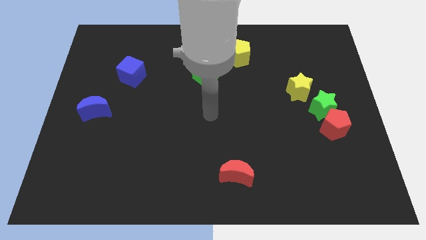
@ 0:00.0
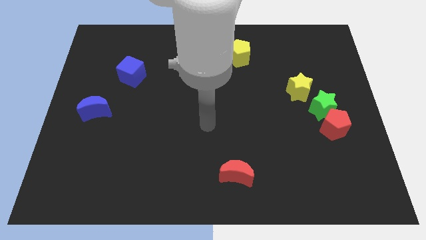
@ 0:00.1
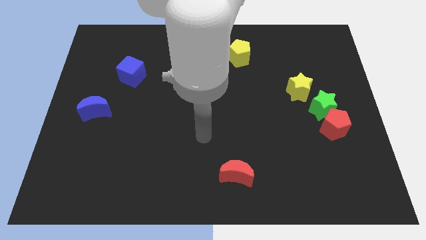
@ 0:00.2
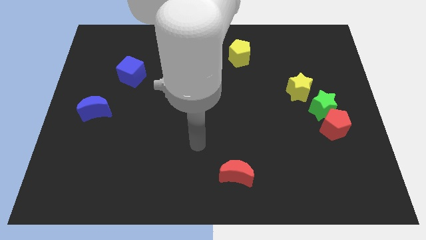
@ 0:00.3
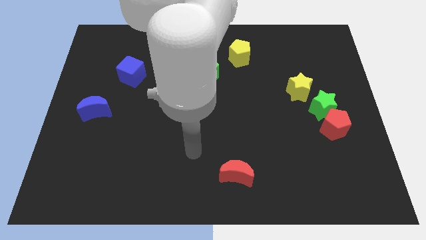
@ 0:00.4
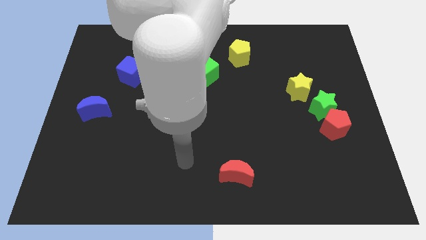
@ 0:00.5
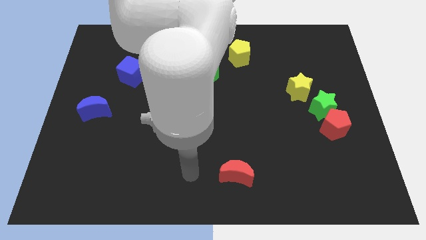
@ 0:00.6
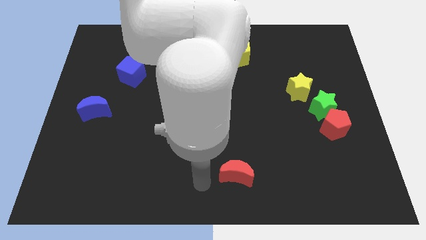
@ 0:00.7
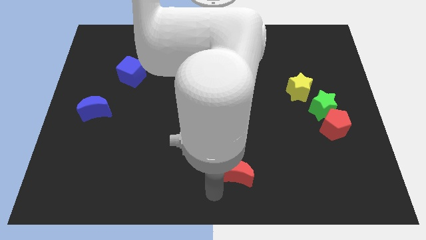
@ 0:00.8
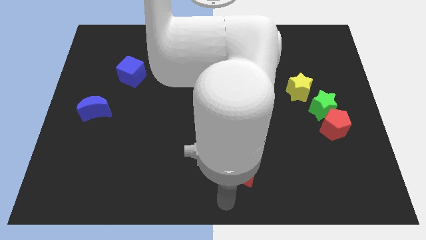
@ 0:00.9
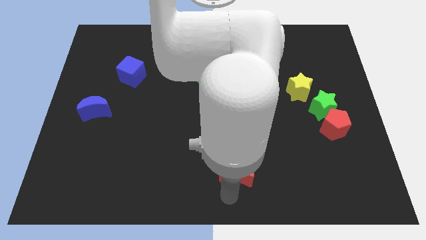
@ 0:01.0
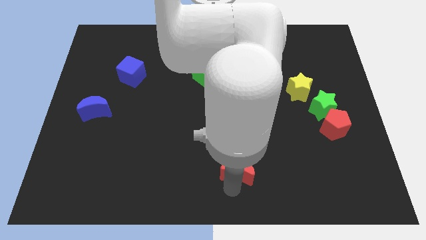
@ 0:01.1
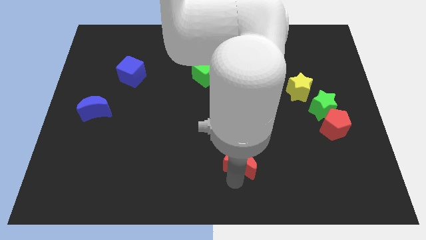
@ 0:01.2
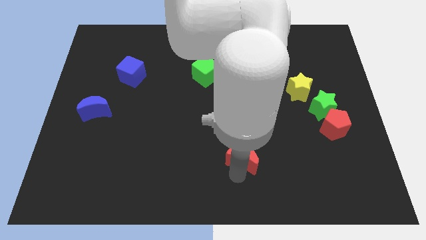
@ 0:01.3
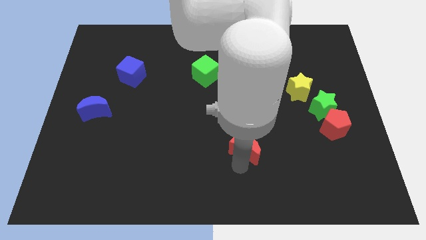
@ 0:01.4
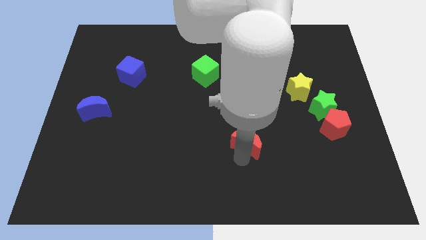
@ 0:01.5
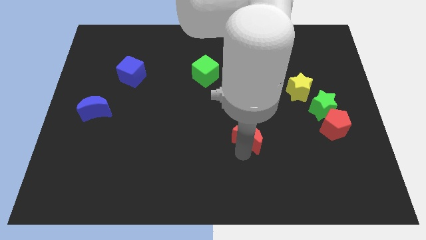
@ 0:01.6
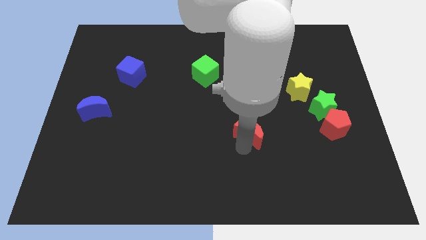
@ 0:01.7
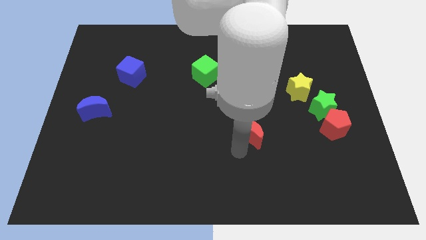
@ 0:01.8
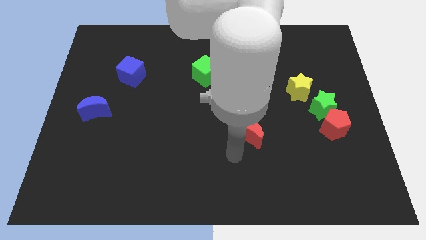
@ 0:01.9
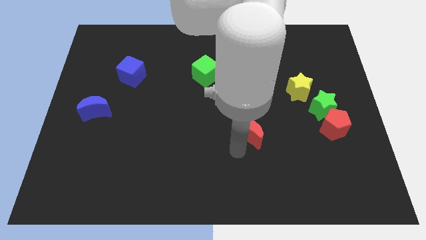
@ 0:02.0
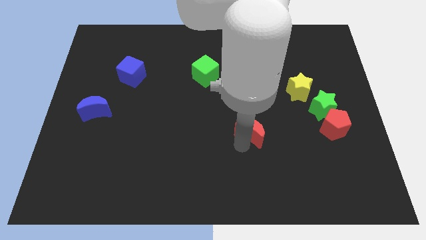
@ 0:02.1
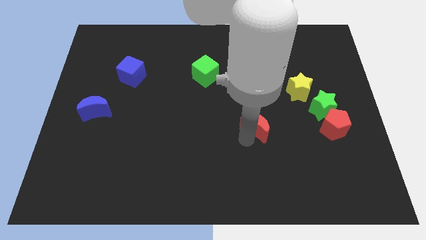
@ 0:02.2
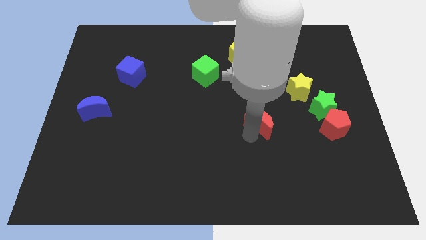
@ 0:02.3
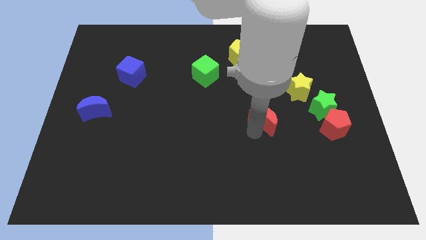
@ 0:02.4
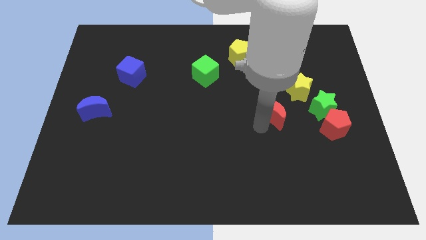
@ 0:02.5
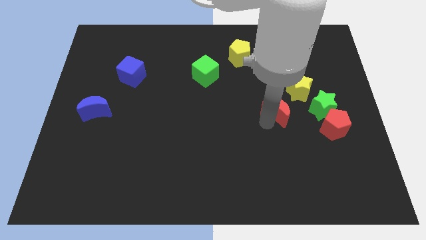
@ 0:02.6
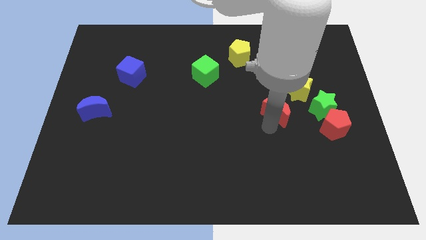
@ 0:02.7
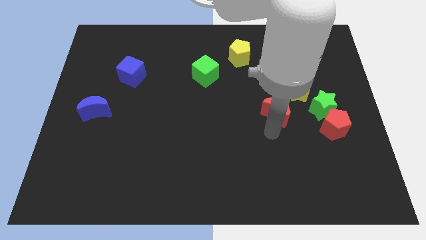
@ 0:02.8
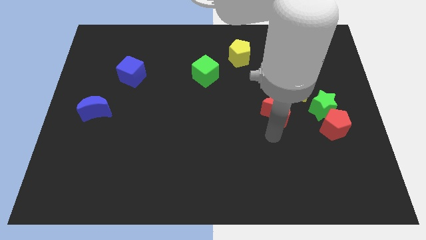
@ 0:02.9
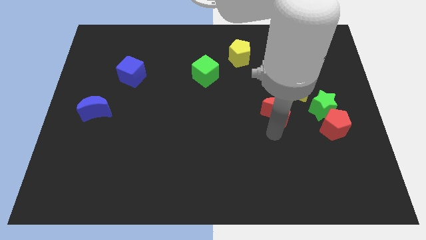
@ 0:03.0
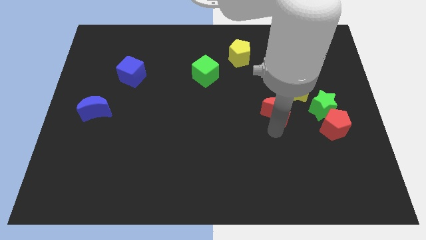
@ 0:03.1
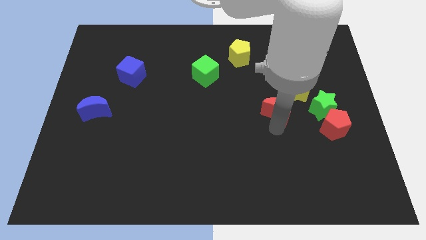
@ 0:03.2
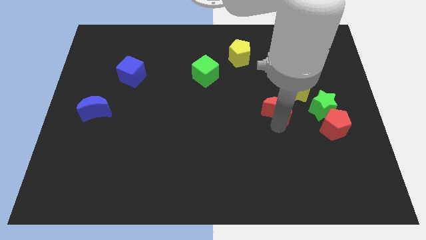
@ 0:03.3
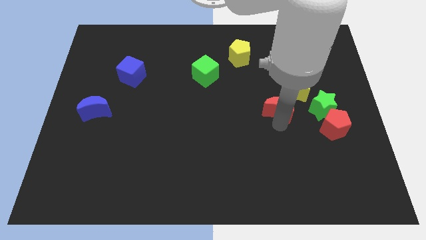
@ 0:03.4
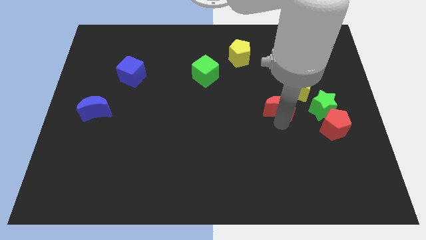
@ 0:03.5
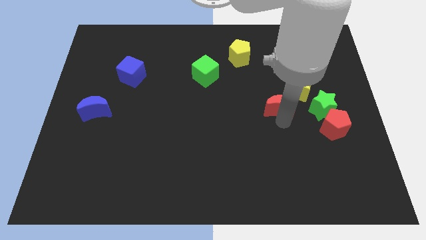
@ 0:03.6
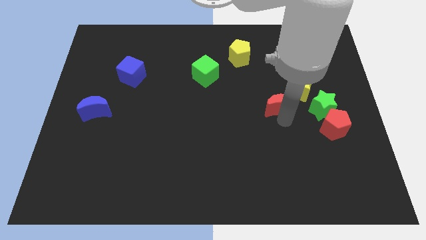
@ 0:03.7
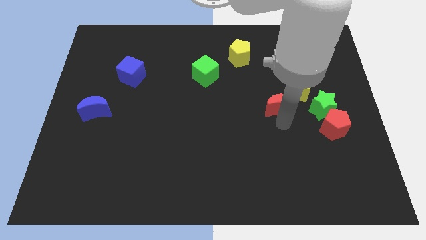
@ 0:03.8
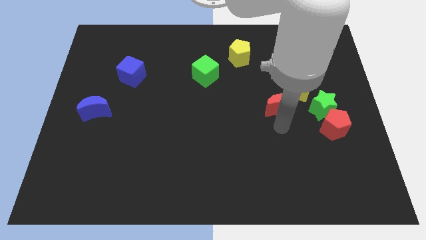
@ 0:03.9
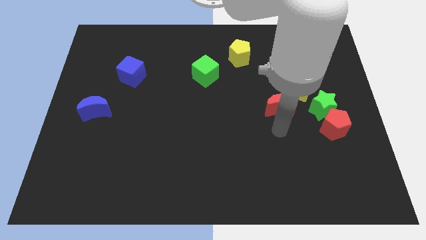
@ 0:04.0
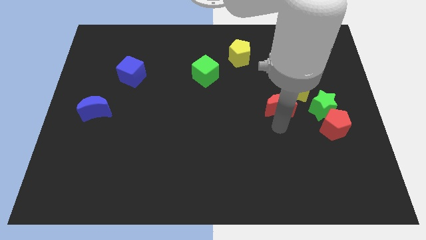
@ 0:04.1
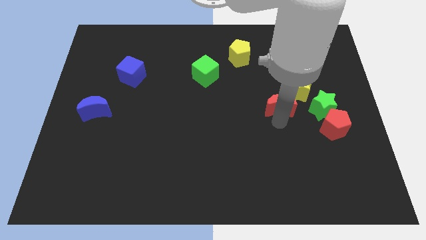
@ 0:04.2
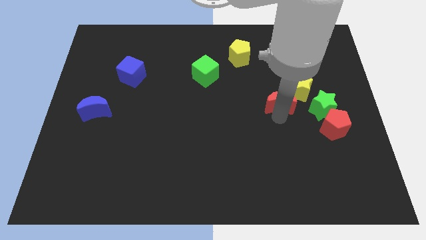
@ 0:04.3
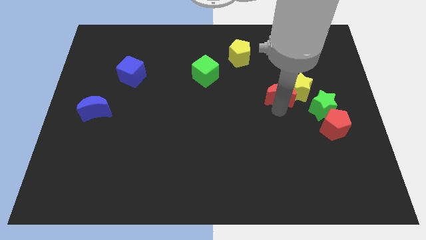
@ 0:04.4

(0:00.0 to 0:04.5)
slide the red moon diagonally upwards and to the right

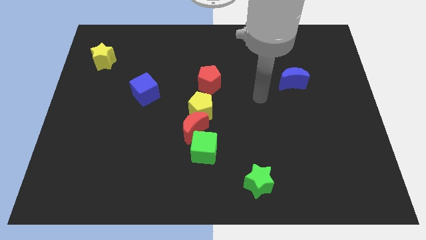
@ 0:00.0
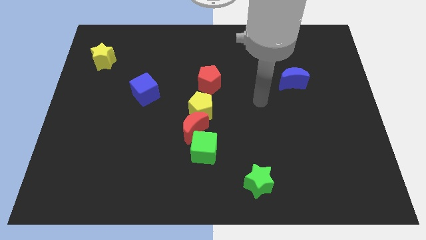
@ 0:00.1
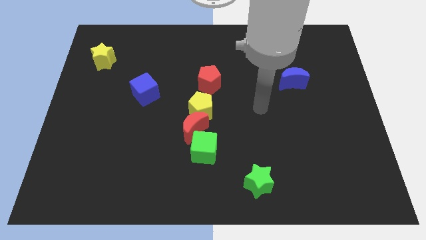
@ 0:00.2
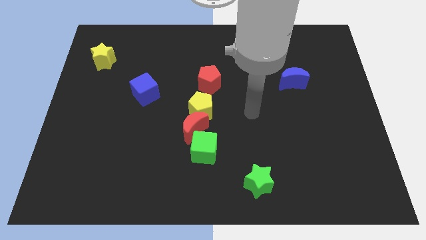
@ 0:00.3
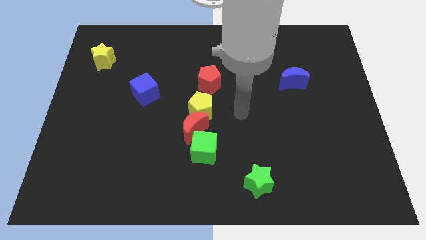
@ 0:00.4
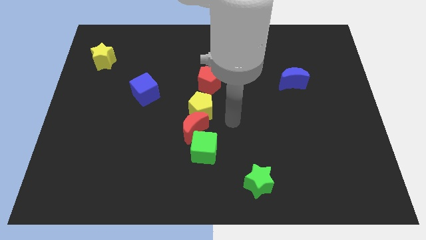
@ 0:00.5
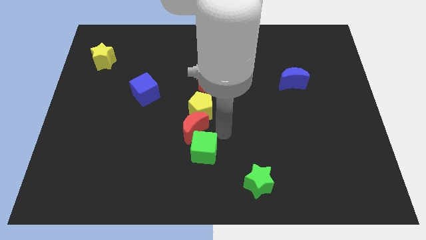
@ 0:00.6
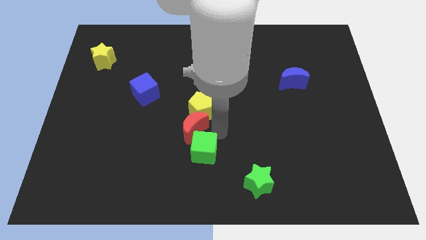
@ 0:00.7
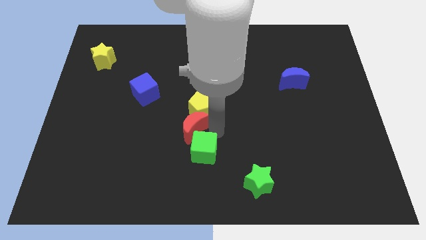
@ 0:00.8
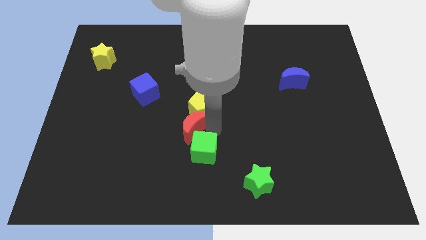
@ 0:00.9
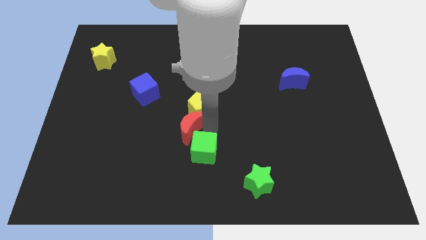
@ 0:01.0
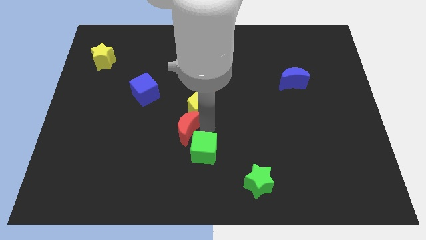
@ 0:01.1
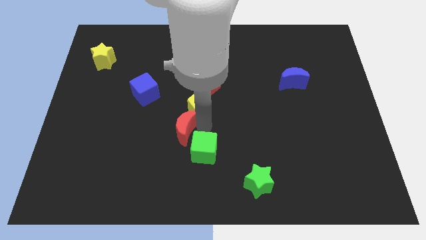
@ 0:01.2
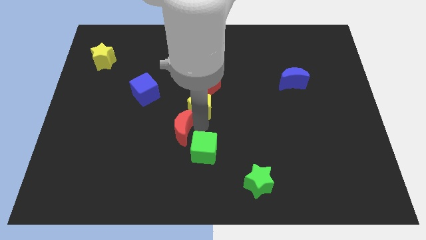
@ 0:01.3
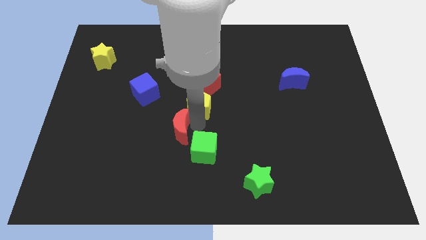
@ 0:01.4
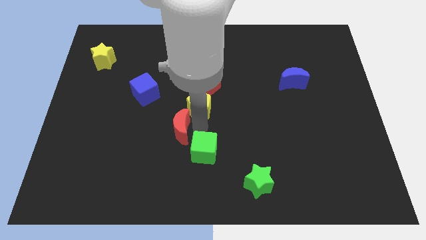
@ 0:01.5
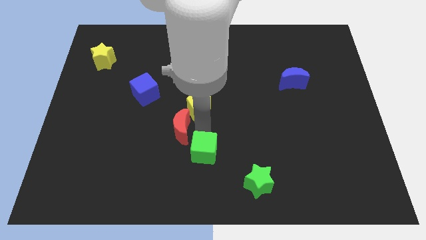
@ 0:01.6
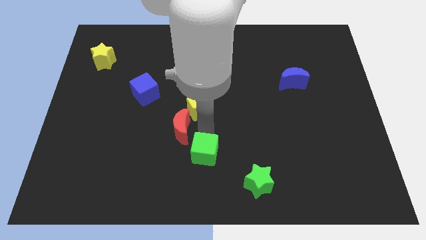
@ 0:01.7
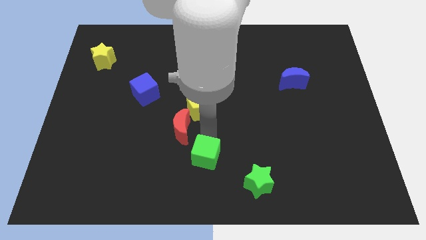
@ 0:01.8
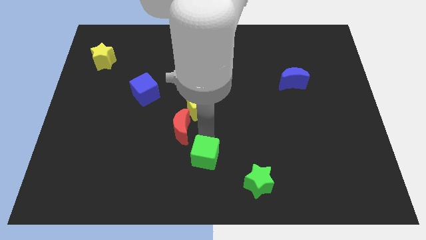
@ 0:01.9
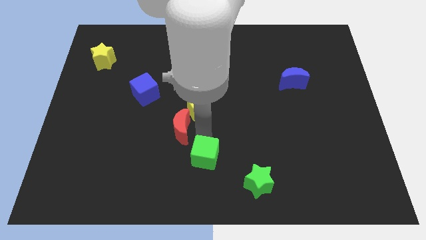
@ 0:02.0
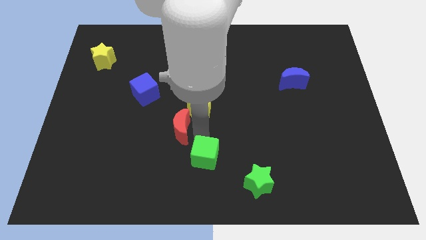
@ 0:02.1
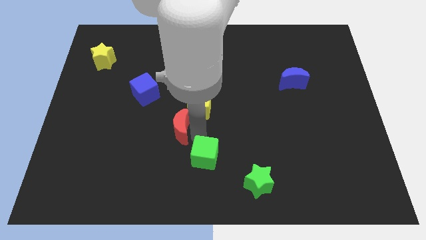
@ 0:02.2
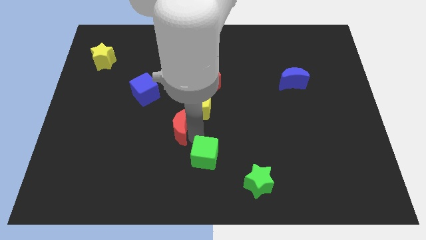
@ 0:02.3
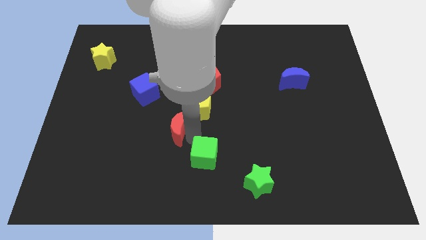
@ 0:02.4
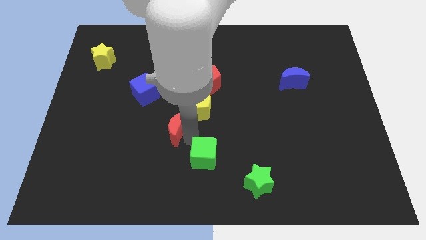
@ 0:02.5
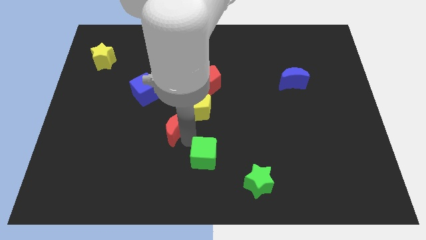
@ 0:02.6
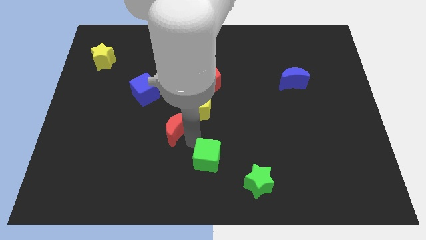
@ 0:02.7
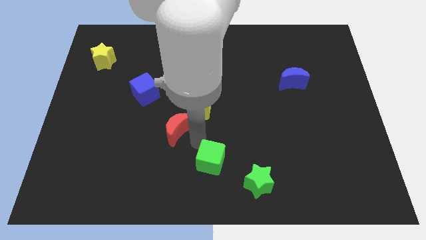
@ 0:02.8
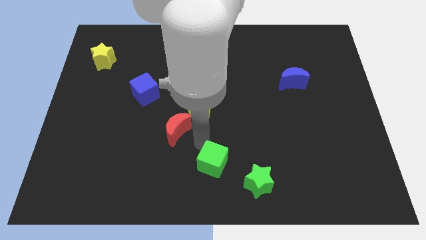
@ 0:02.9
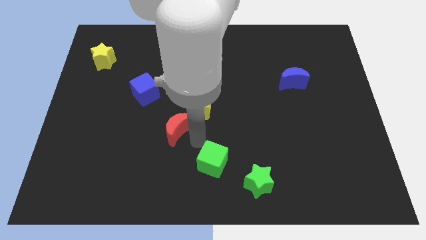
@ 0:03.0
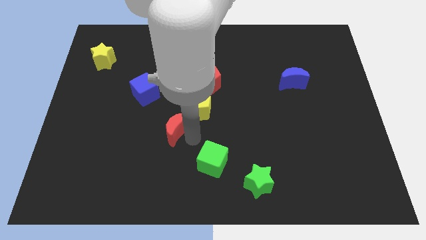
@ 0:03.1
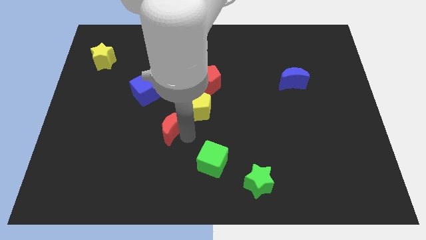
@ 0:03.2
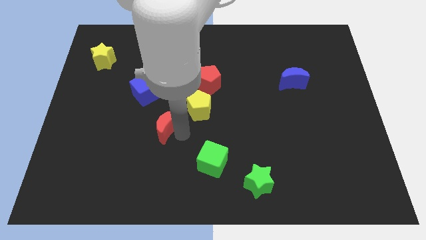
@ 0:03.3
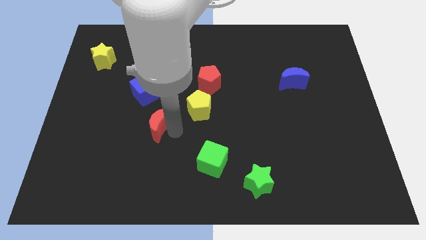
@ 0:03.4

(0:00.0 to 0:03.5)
slightly slide the red moon left
